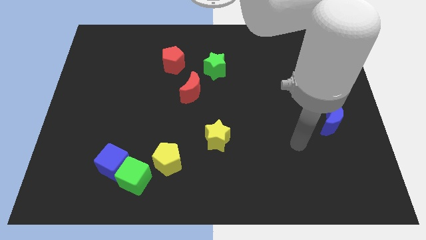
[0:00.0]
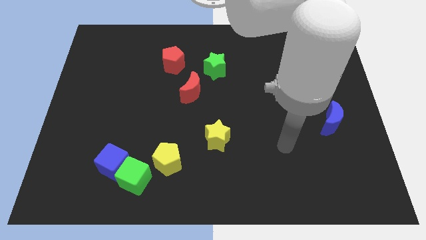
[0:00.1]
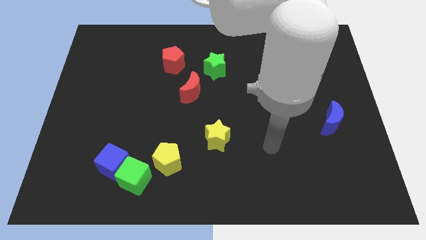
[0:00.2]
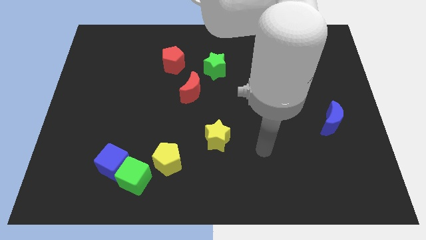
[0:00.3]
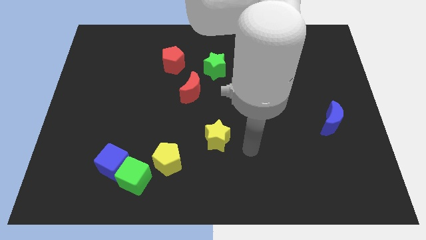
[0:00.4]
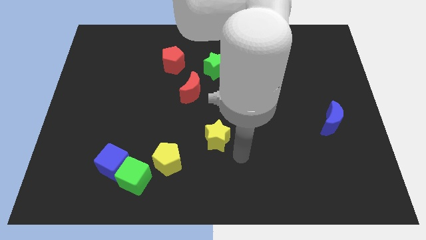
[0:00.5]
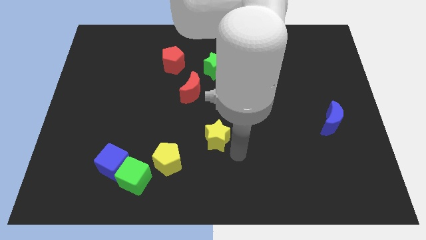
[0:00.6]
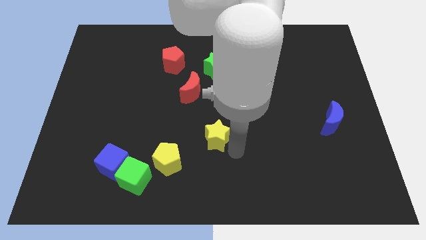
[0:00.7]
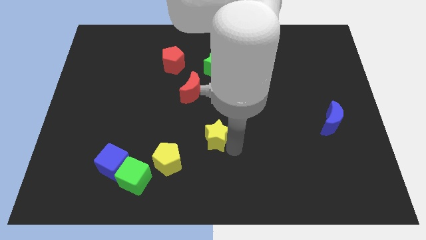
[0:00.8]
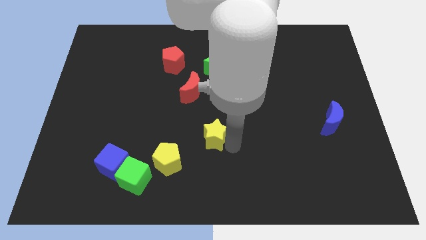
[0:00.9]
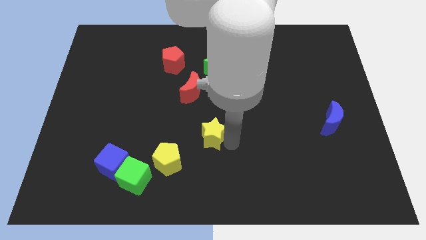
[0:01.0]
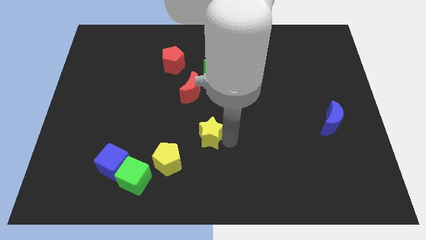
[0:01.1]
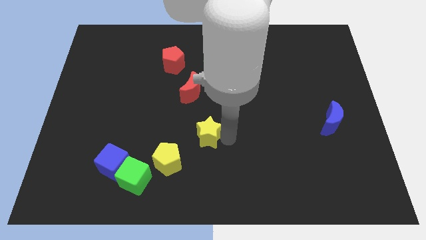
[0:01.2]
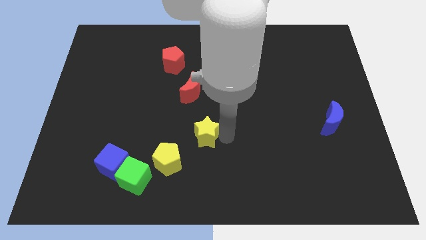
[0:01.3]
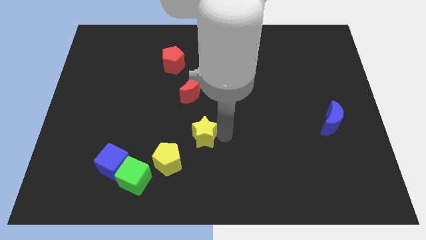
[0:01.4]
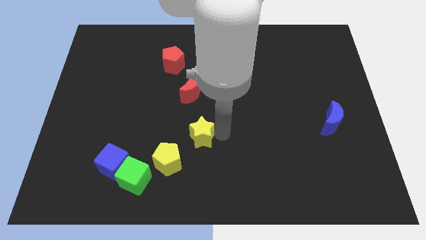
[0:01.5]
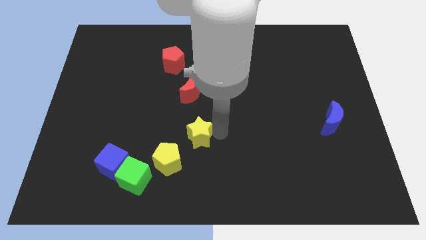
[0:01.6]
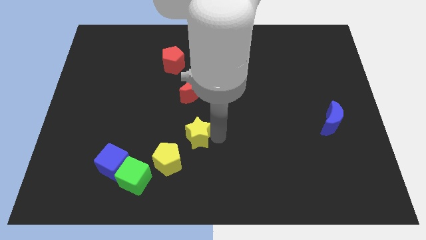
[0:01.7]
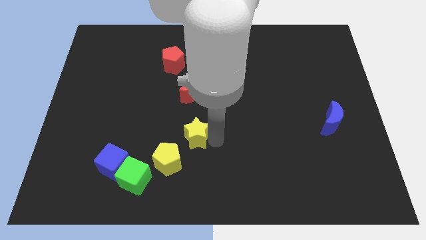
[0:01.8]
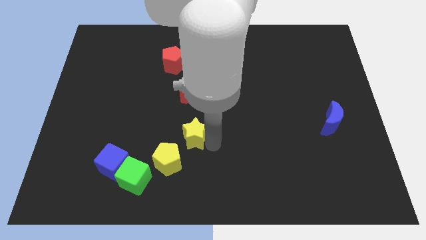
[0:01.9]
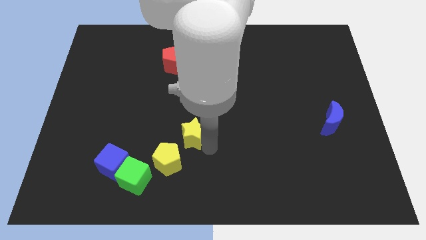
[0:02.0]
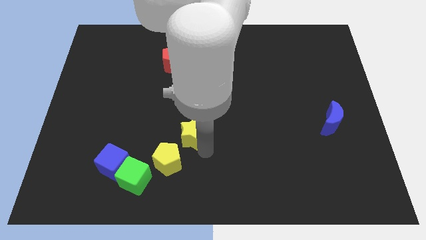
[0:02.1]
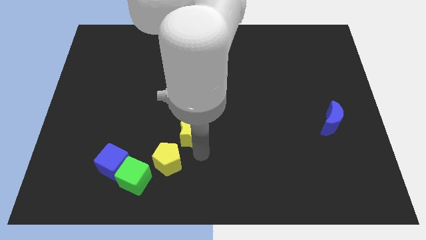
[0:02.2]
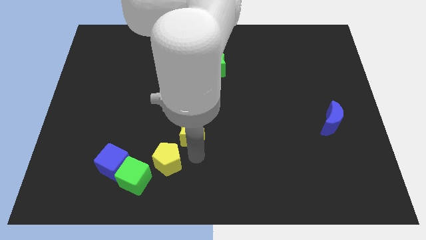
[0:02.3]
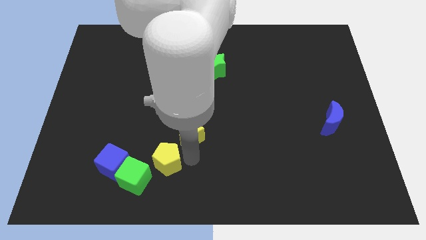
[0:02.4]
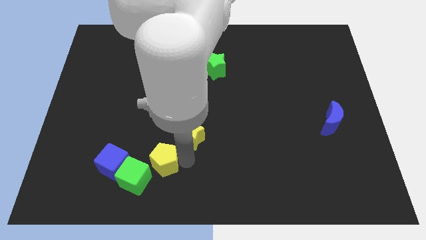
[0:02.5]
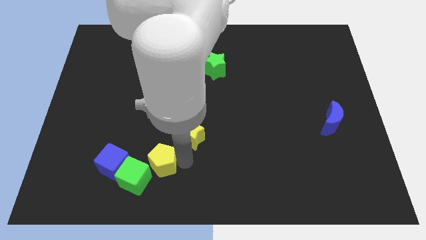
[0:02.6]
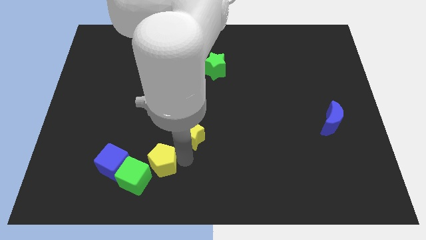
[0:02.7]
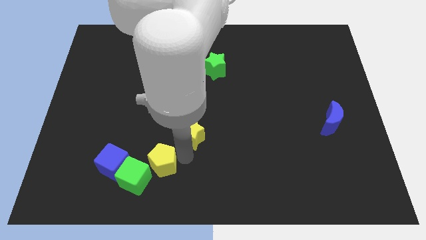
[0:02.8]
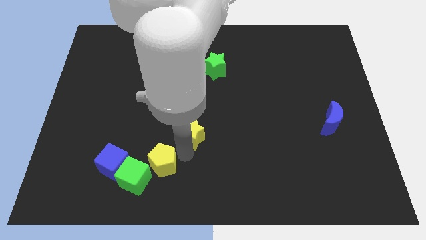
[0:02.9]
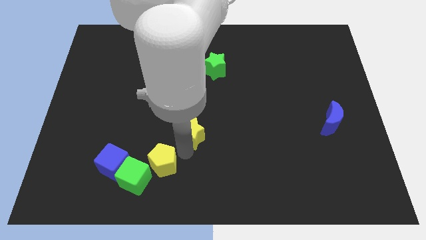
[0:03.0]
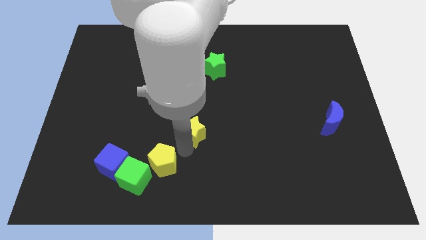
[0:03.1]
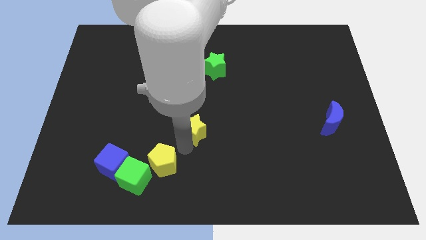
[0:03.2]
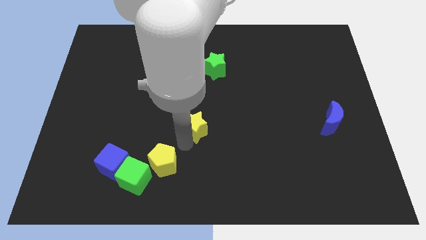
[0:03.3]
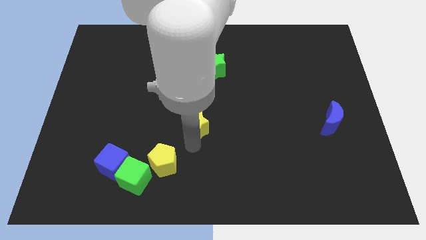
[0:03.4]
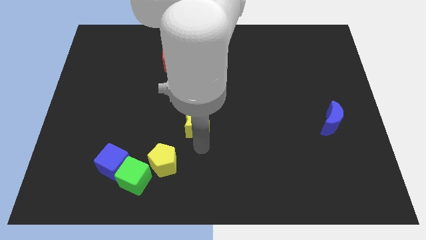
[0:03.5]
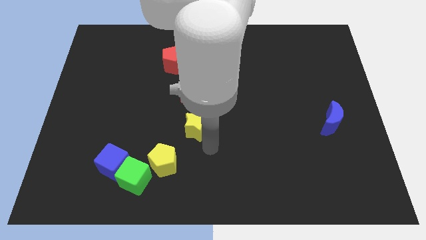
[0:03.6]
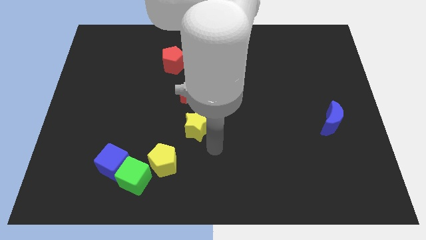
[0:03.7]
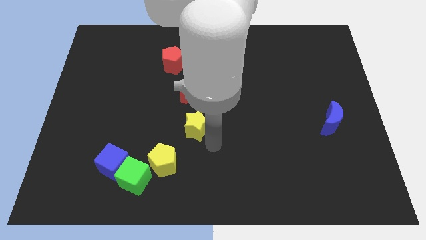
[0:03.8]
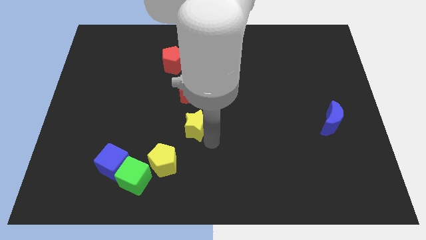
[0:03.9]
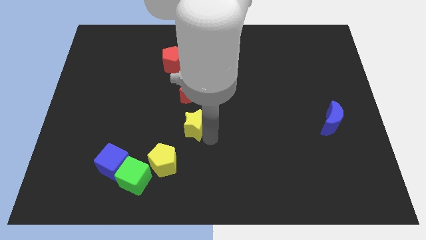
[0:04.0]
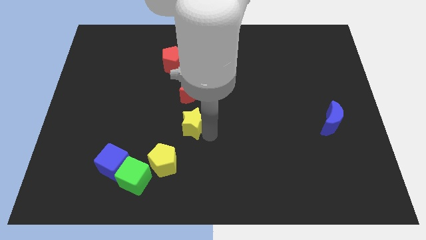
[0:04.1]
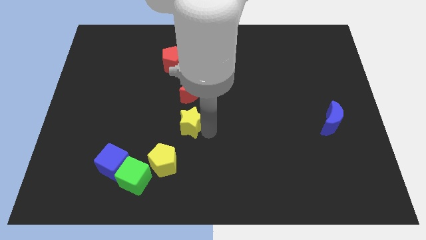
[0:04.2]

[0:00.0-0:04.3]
move the yellow star somewhat upwards and to the left diagonally

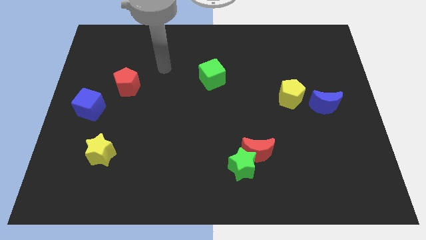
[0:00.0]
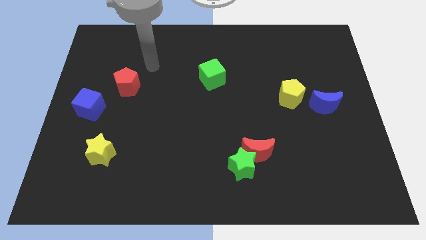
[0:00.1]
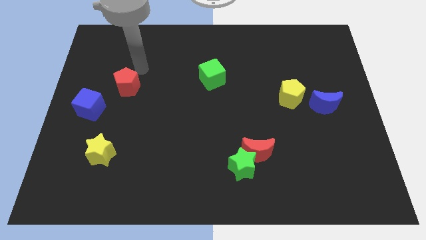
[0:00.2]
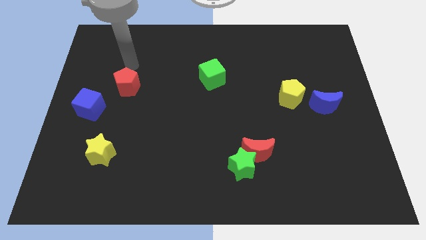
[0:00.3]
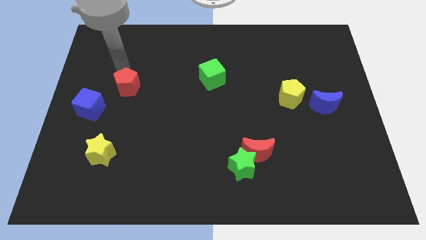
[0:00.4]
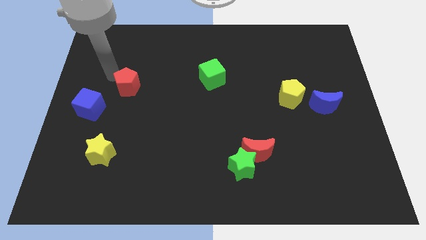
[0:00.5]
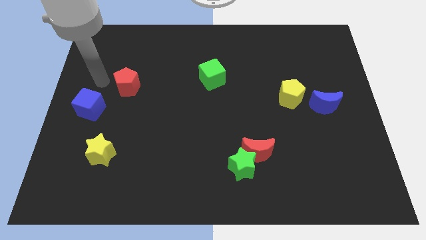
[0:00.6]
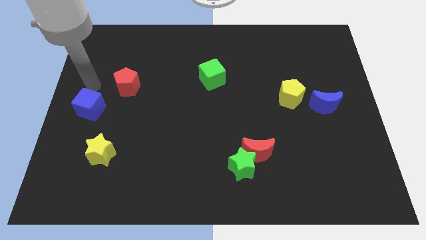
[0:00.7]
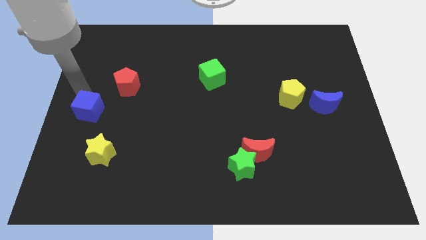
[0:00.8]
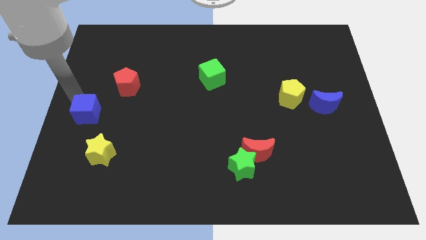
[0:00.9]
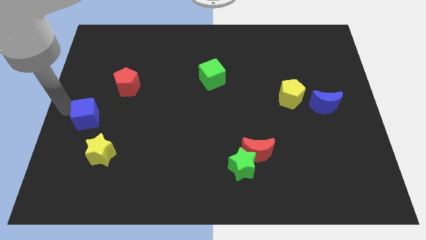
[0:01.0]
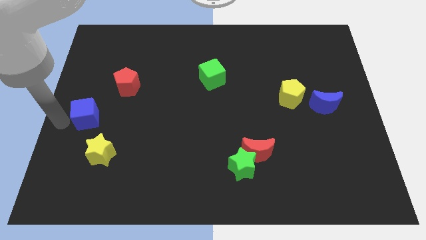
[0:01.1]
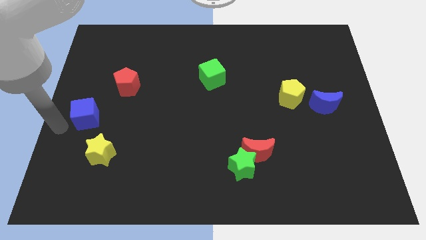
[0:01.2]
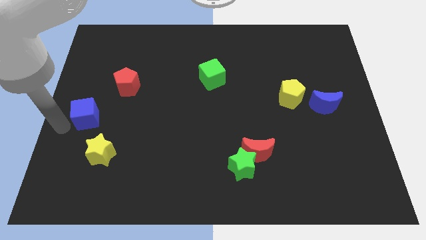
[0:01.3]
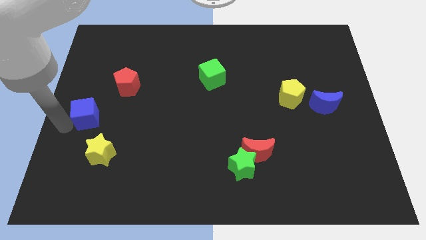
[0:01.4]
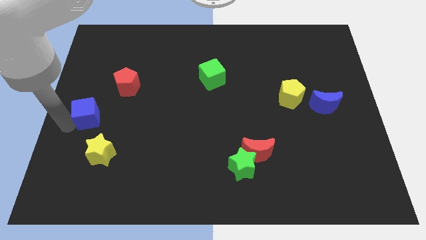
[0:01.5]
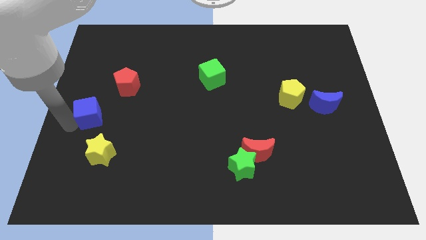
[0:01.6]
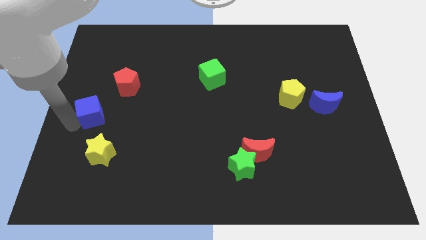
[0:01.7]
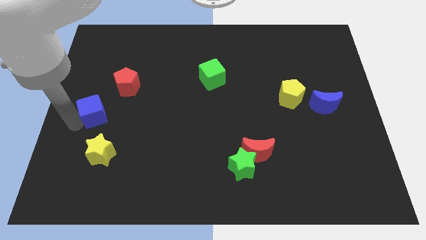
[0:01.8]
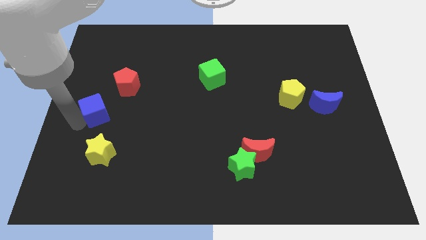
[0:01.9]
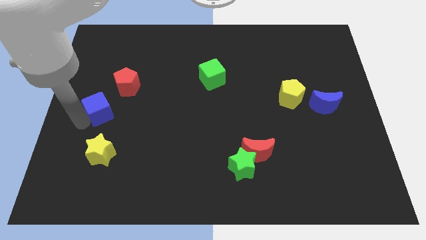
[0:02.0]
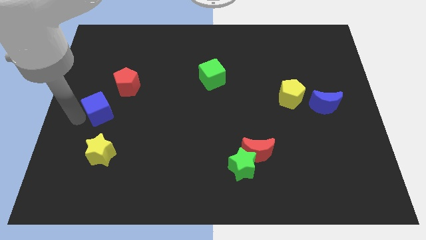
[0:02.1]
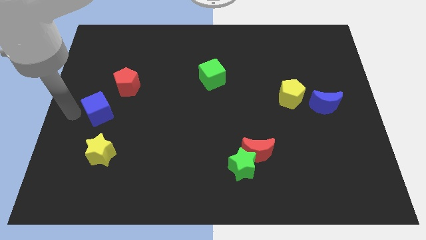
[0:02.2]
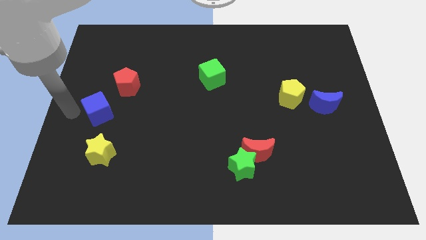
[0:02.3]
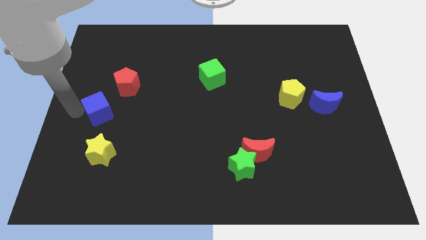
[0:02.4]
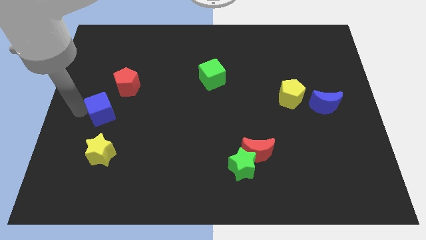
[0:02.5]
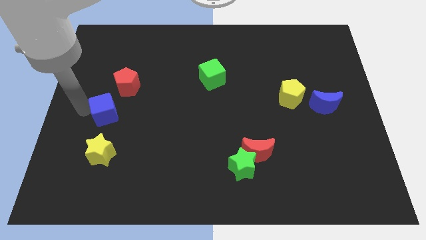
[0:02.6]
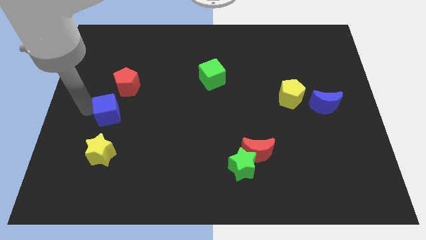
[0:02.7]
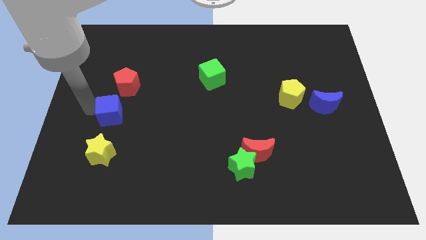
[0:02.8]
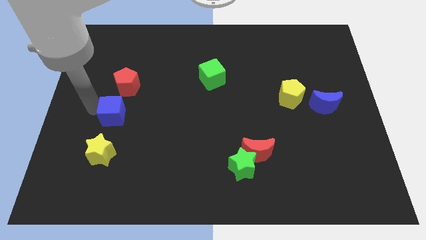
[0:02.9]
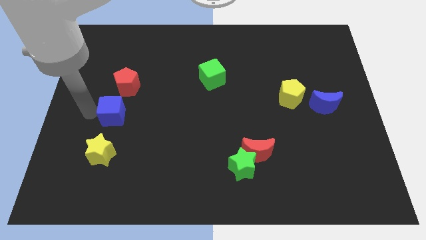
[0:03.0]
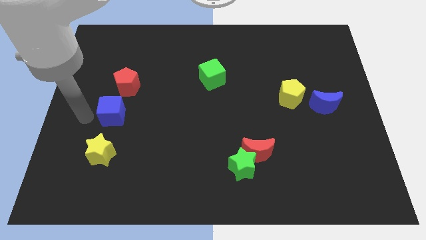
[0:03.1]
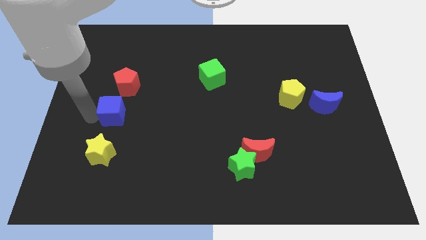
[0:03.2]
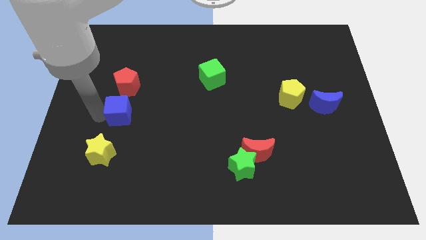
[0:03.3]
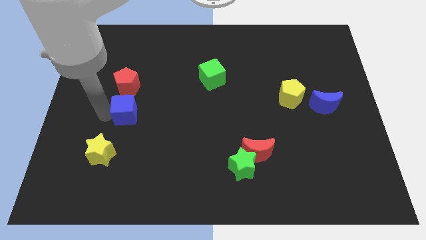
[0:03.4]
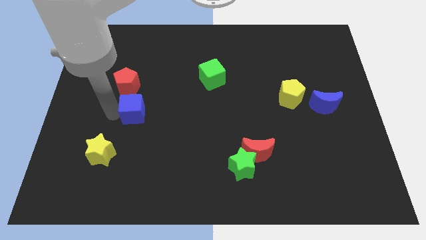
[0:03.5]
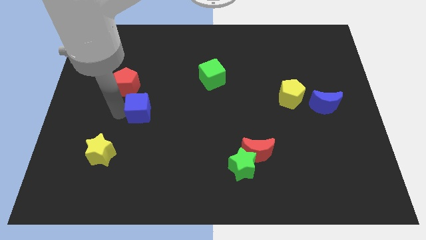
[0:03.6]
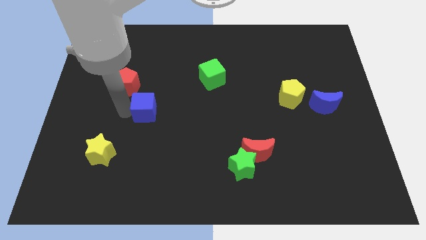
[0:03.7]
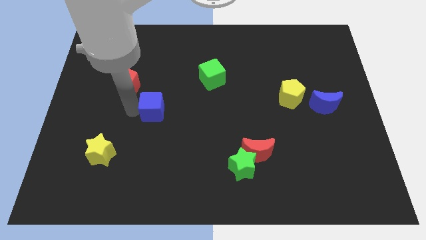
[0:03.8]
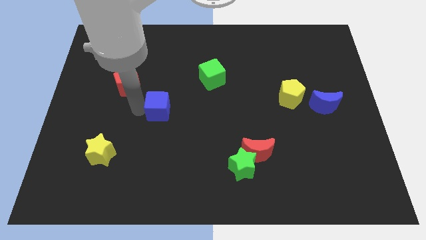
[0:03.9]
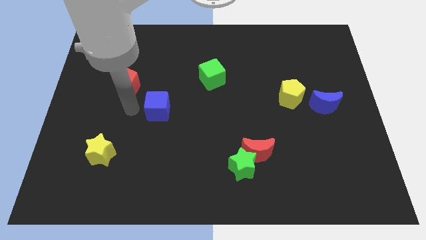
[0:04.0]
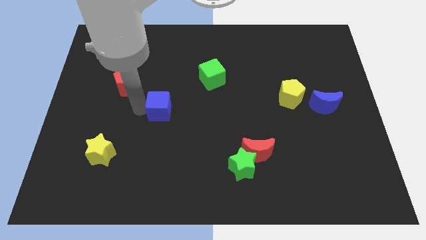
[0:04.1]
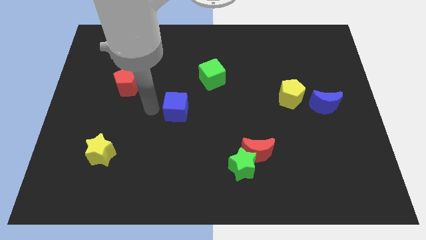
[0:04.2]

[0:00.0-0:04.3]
slide the blue cube to the right
